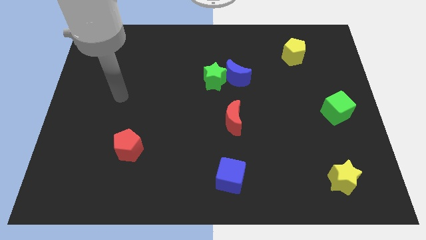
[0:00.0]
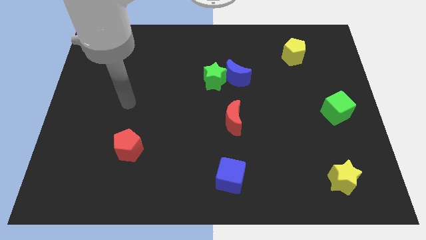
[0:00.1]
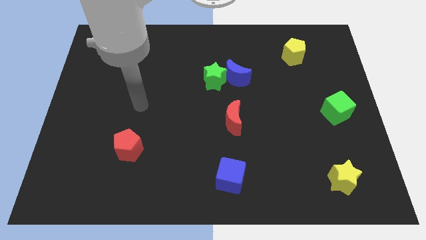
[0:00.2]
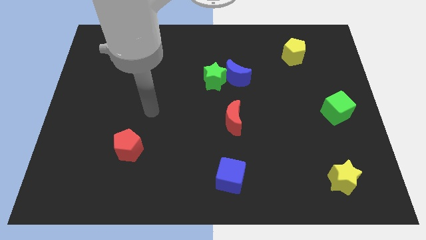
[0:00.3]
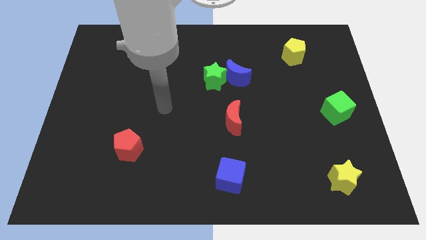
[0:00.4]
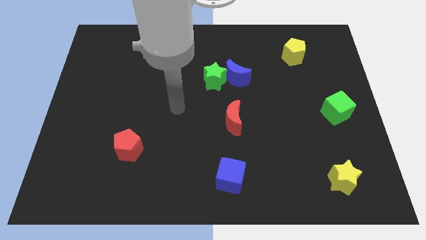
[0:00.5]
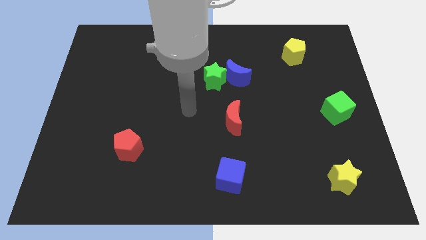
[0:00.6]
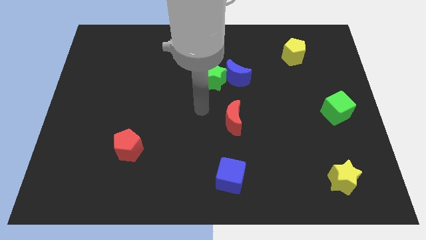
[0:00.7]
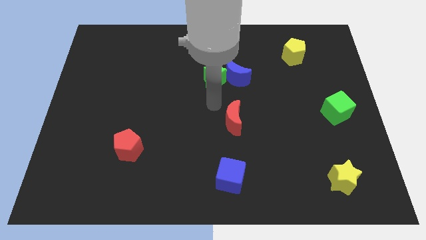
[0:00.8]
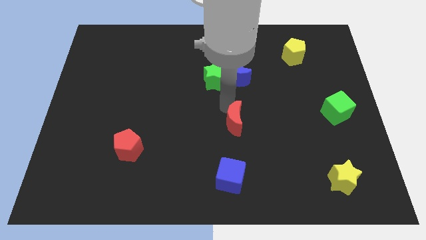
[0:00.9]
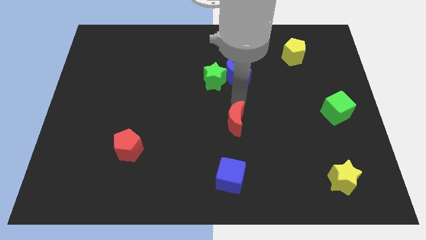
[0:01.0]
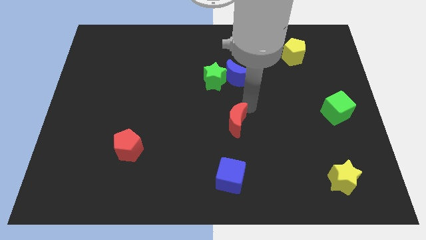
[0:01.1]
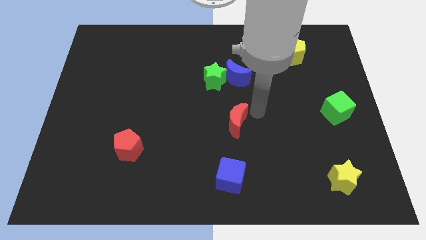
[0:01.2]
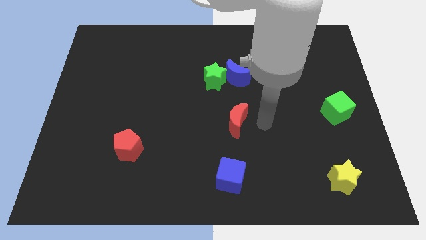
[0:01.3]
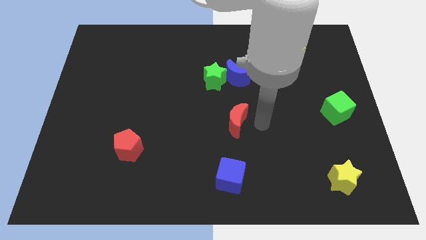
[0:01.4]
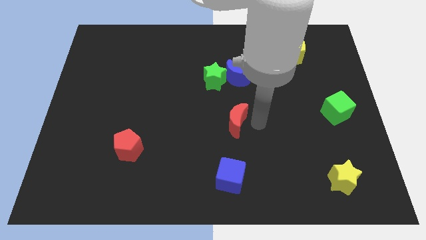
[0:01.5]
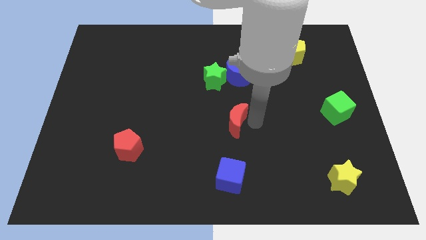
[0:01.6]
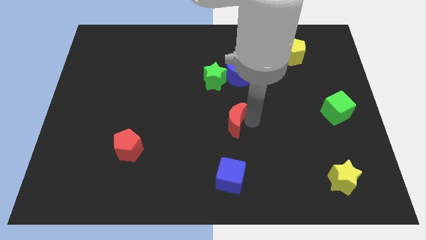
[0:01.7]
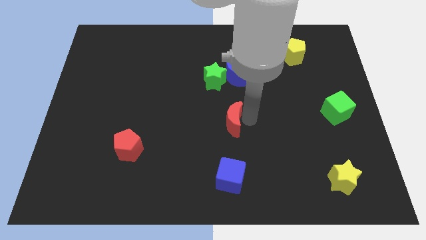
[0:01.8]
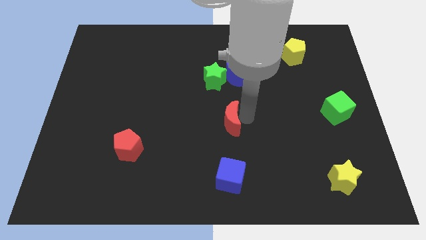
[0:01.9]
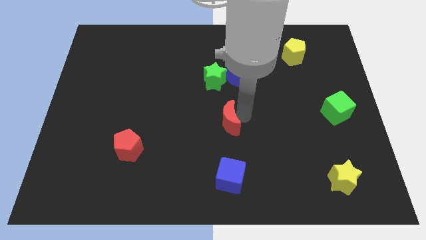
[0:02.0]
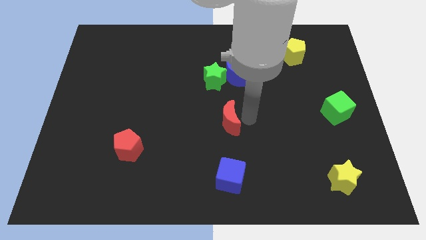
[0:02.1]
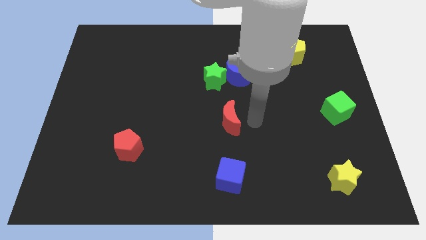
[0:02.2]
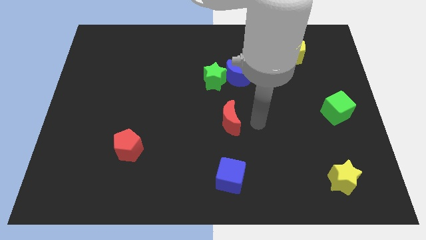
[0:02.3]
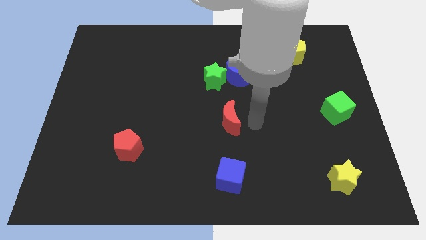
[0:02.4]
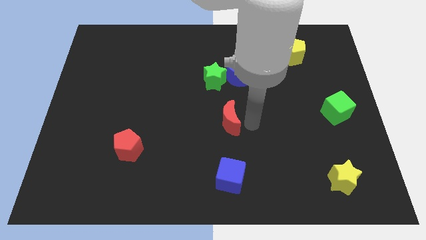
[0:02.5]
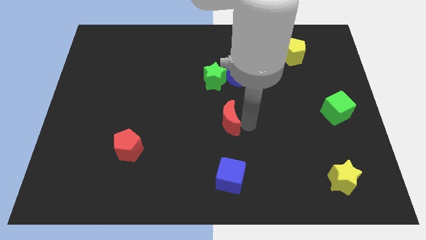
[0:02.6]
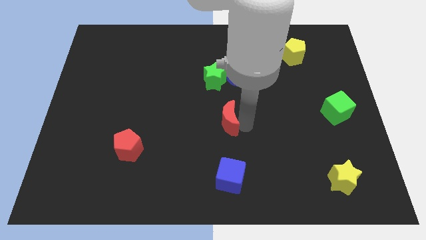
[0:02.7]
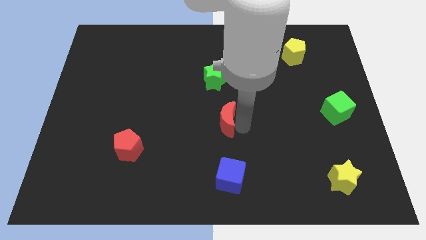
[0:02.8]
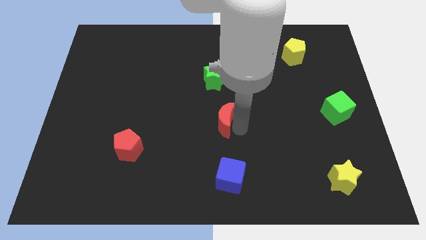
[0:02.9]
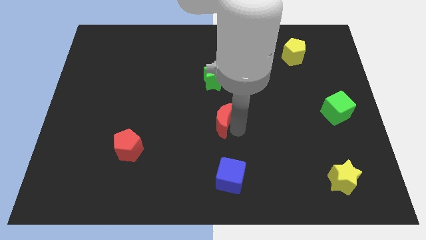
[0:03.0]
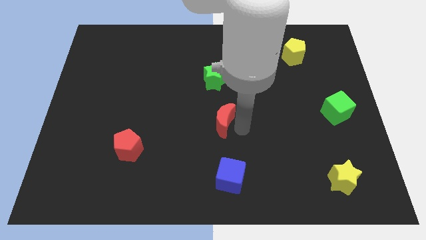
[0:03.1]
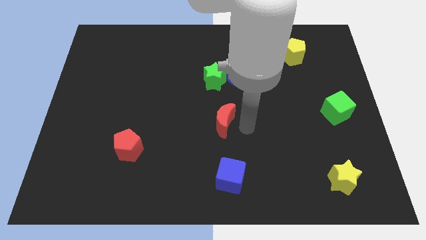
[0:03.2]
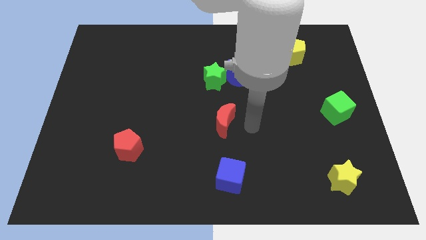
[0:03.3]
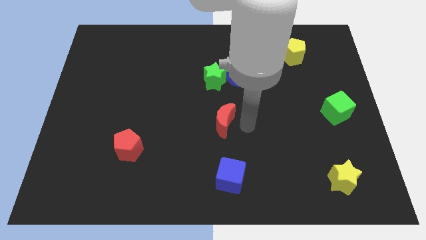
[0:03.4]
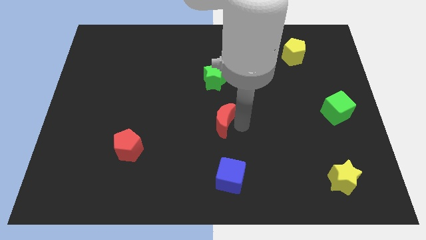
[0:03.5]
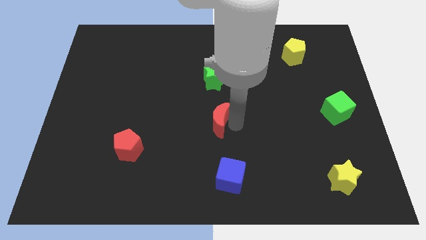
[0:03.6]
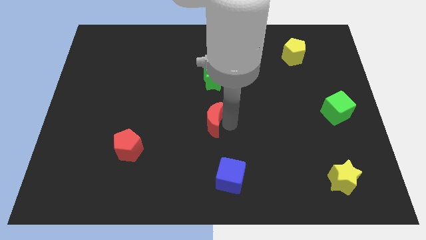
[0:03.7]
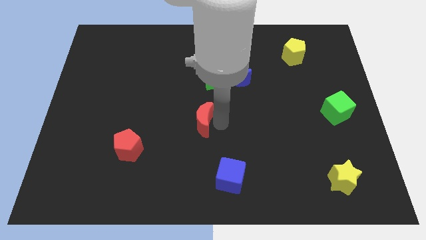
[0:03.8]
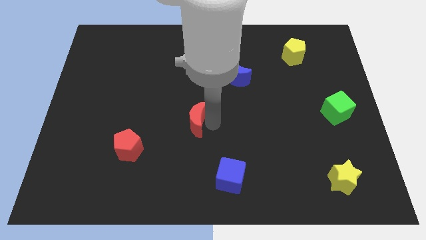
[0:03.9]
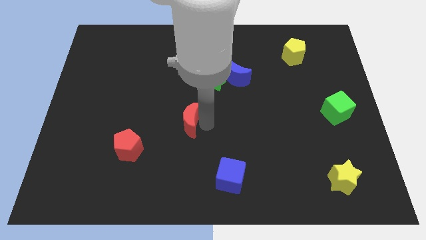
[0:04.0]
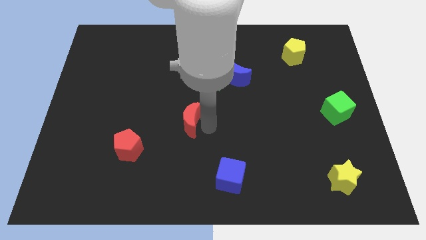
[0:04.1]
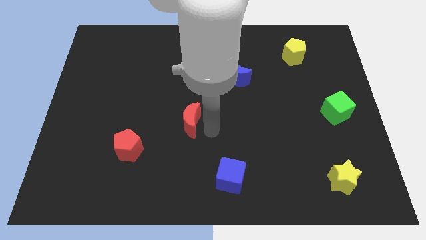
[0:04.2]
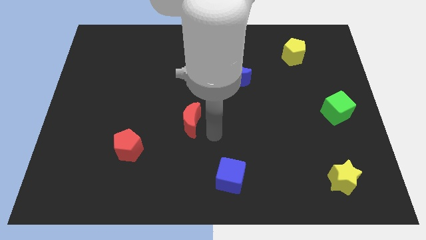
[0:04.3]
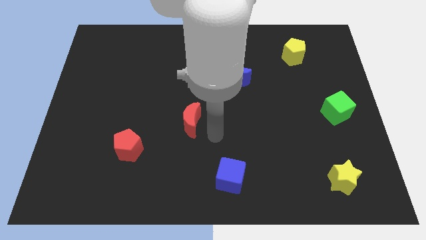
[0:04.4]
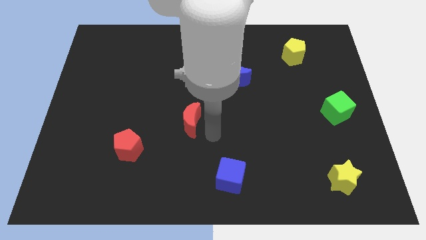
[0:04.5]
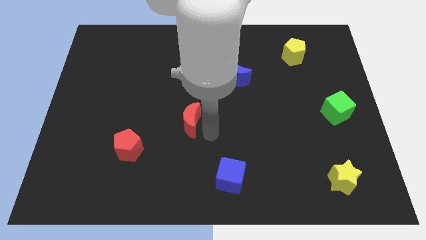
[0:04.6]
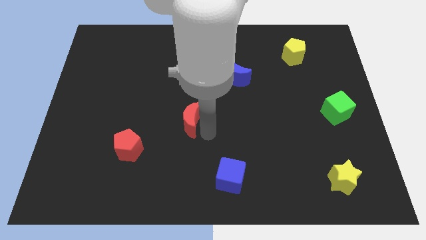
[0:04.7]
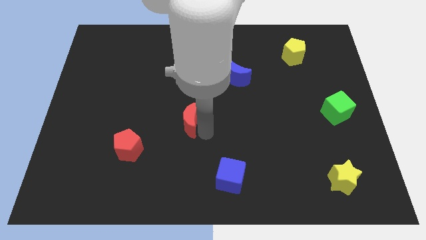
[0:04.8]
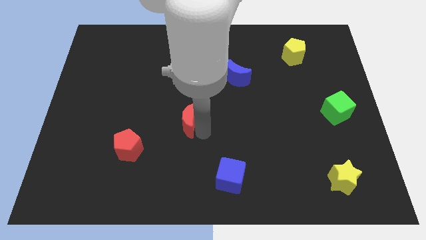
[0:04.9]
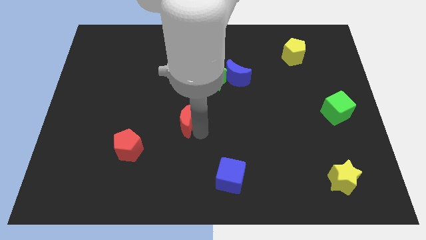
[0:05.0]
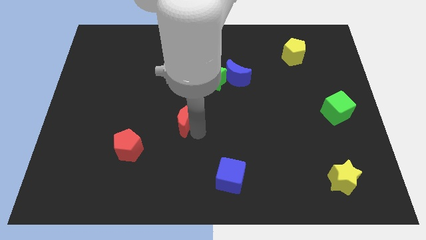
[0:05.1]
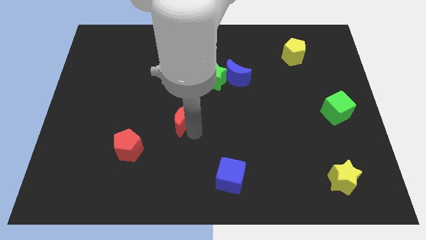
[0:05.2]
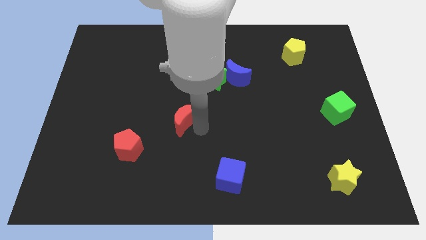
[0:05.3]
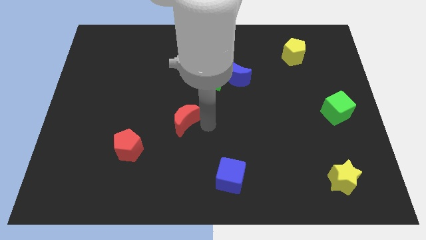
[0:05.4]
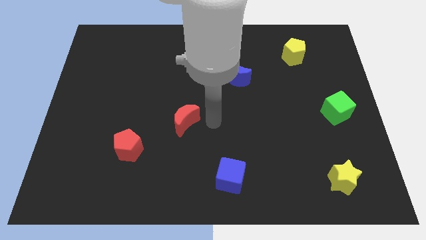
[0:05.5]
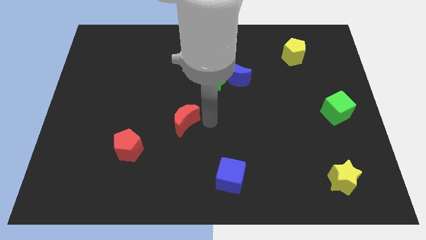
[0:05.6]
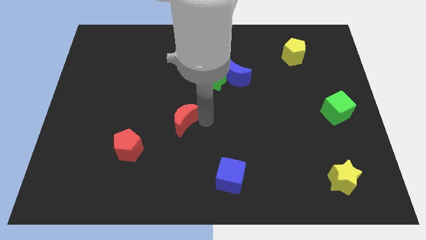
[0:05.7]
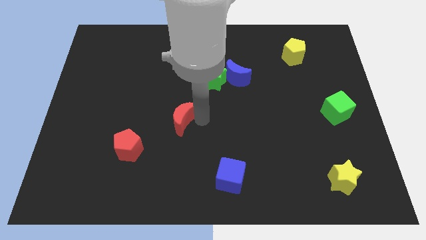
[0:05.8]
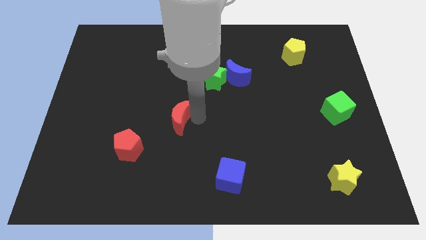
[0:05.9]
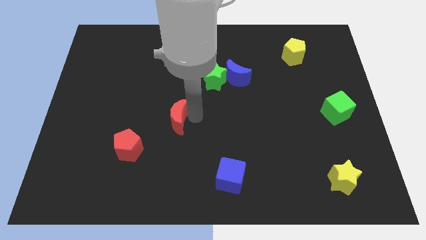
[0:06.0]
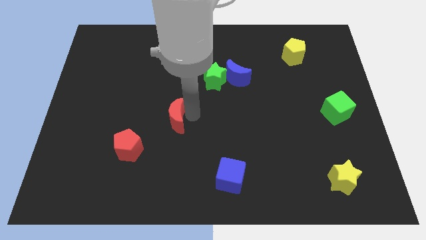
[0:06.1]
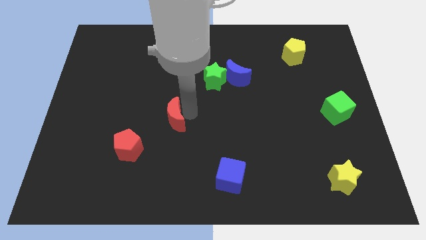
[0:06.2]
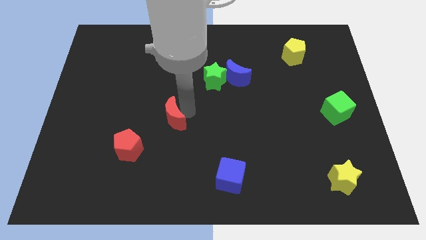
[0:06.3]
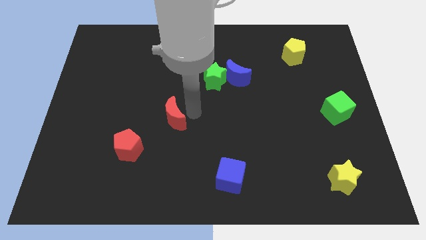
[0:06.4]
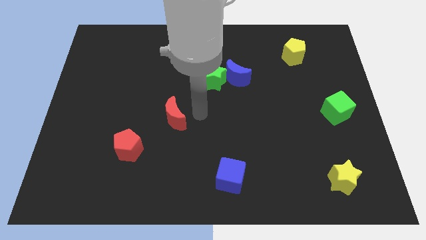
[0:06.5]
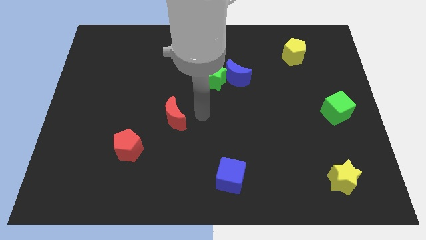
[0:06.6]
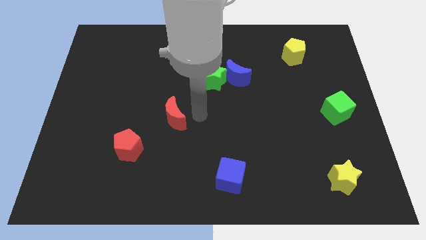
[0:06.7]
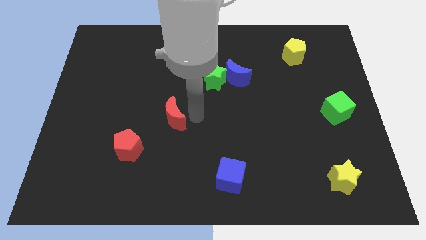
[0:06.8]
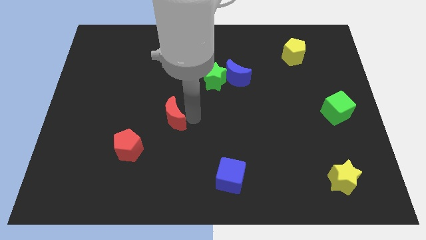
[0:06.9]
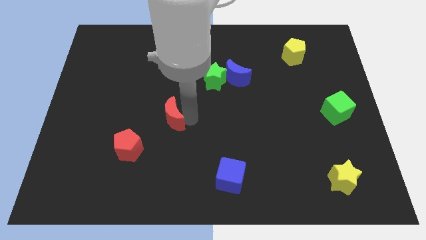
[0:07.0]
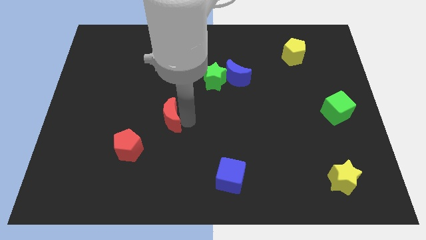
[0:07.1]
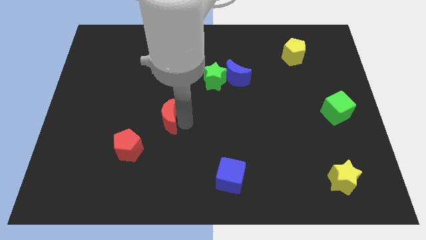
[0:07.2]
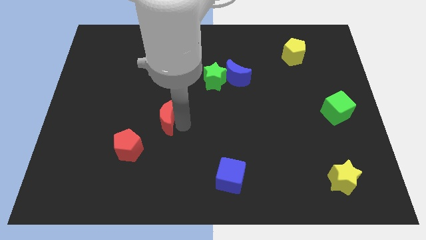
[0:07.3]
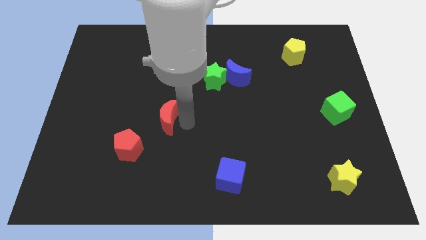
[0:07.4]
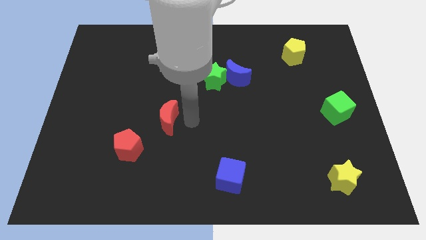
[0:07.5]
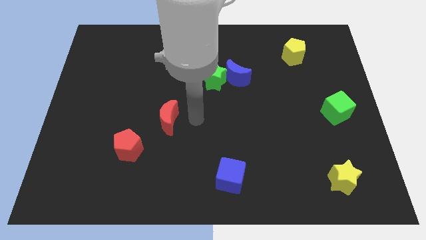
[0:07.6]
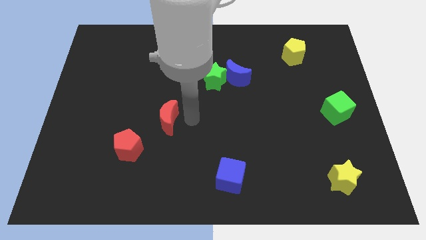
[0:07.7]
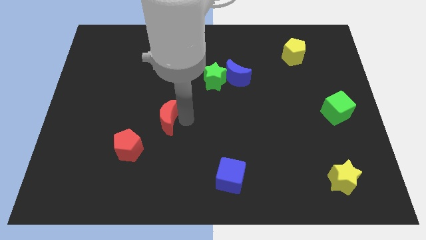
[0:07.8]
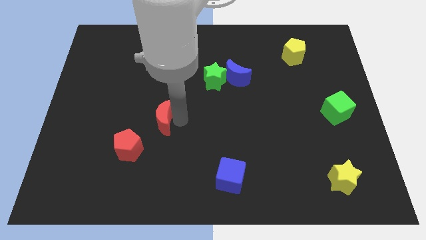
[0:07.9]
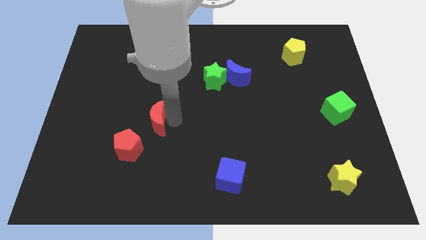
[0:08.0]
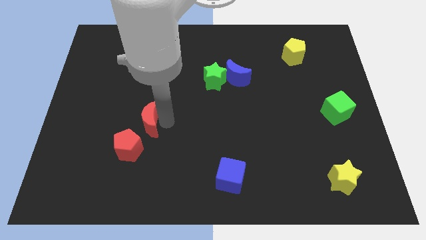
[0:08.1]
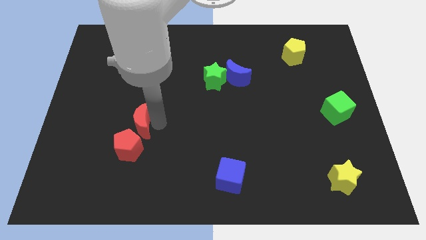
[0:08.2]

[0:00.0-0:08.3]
move the red moon to the left
